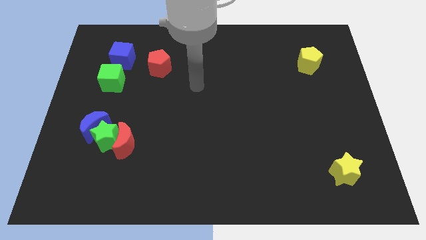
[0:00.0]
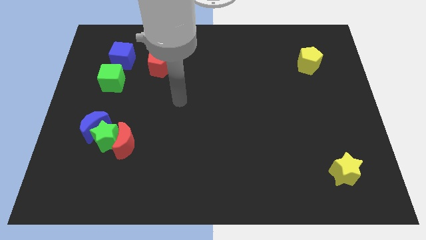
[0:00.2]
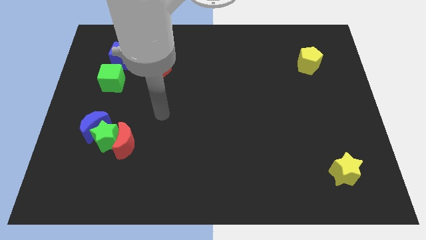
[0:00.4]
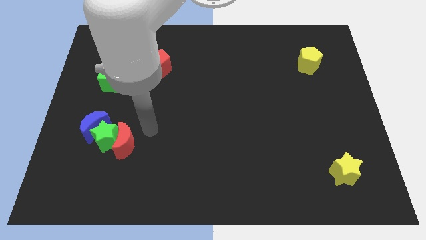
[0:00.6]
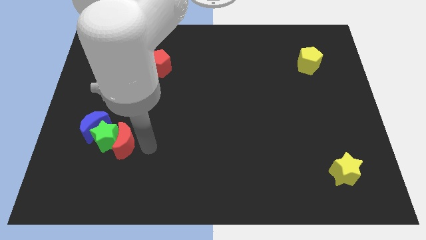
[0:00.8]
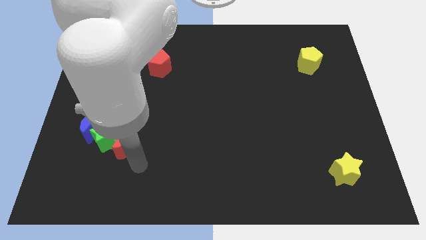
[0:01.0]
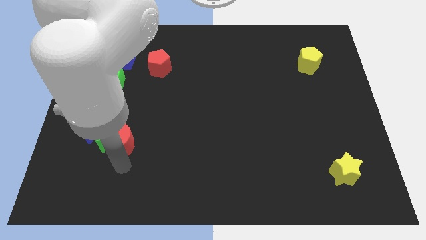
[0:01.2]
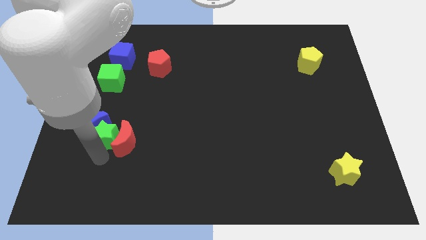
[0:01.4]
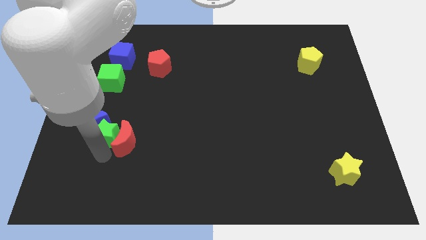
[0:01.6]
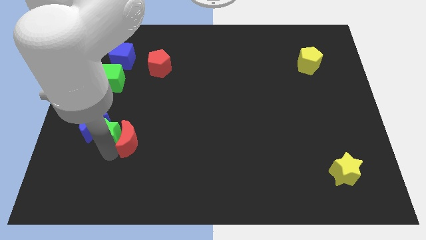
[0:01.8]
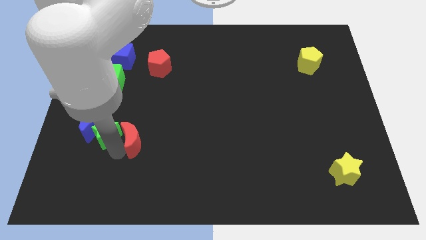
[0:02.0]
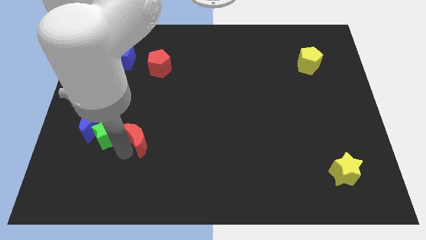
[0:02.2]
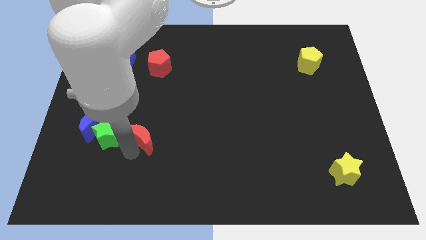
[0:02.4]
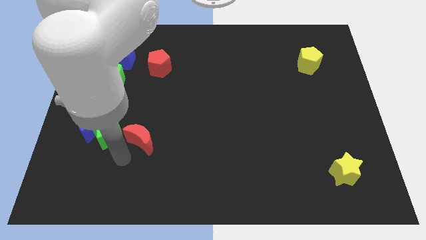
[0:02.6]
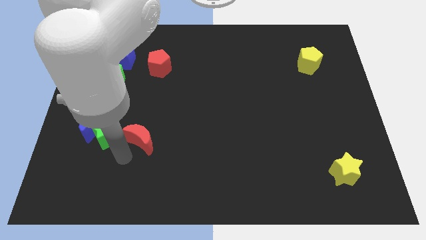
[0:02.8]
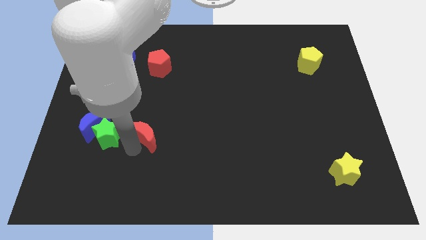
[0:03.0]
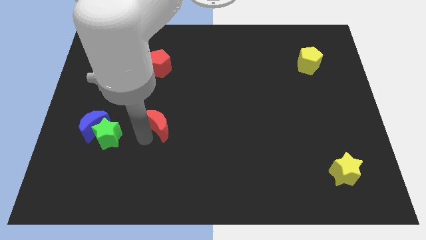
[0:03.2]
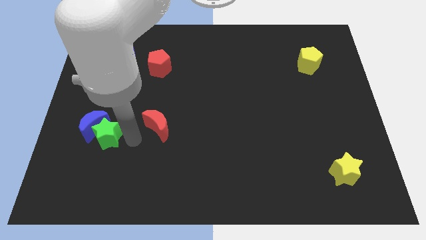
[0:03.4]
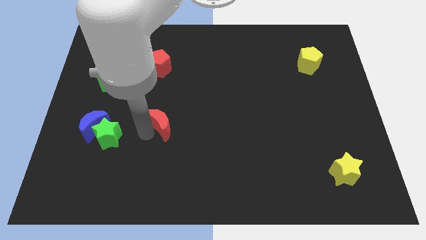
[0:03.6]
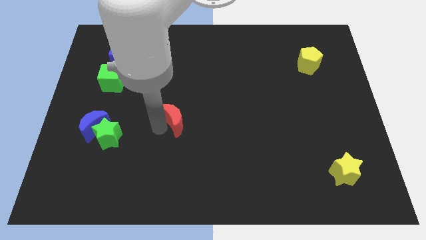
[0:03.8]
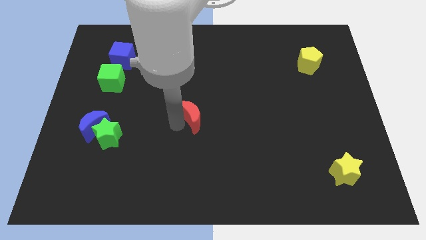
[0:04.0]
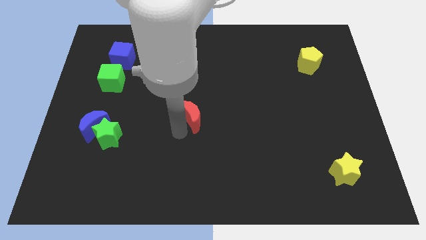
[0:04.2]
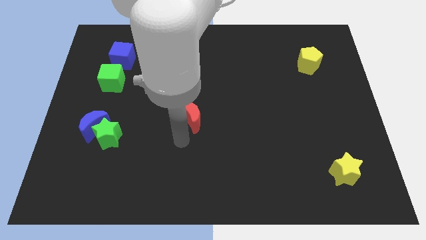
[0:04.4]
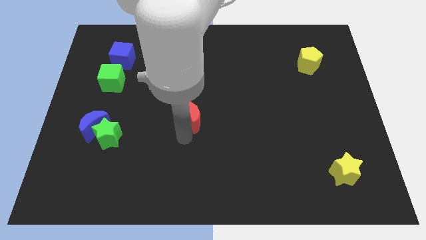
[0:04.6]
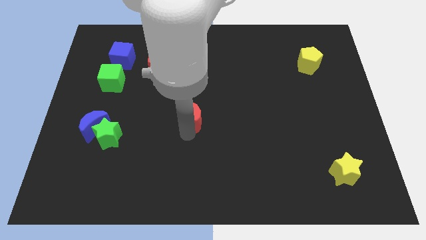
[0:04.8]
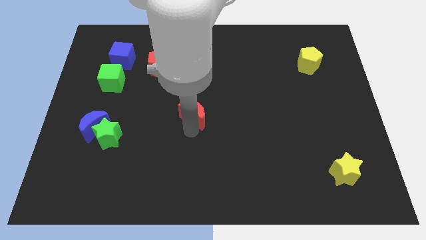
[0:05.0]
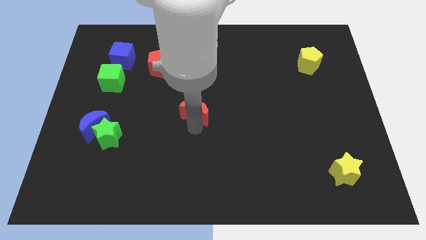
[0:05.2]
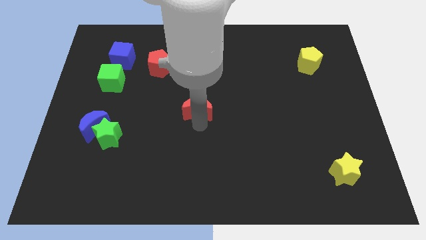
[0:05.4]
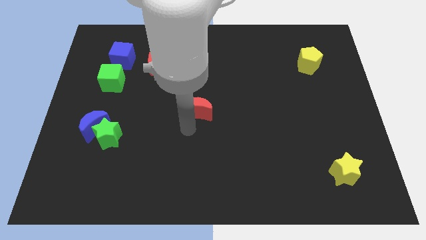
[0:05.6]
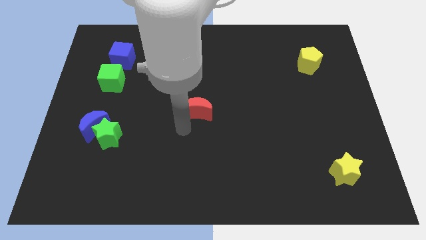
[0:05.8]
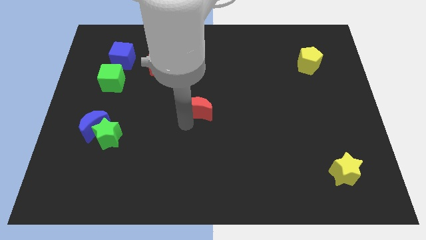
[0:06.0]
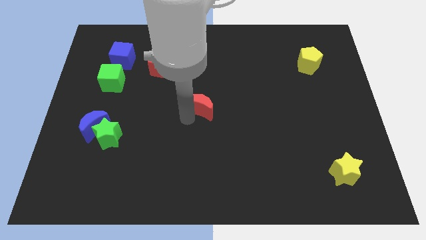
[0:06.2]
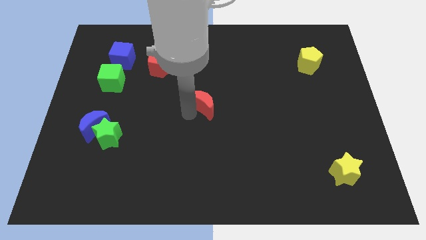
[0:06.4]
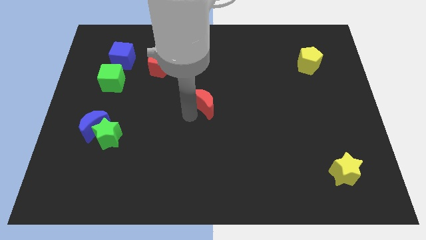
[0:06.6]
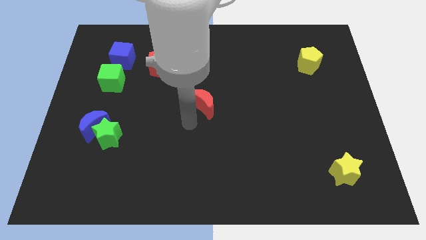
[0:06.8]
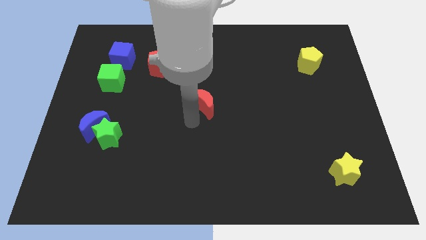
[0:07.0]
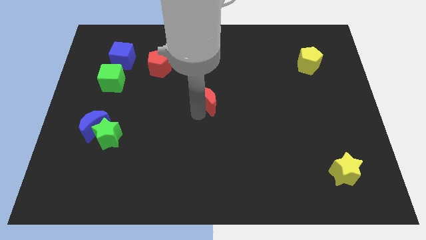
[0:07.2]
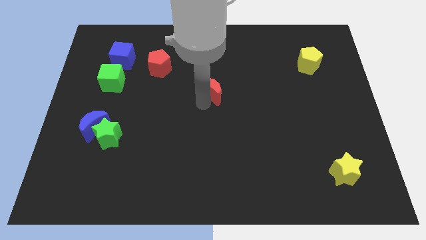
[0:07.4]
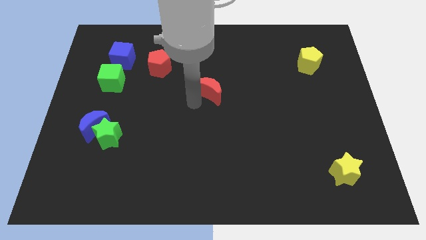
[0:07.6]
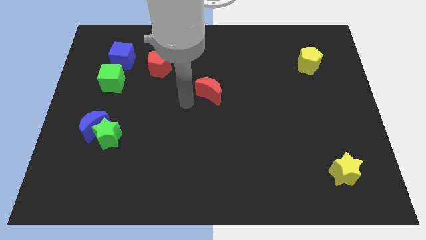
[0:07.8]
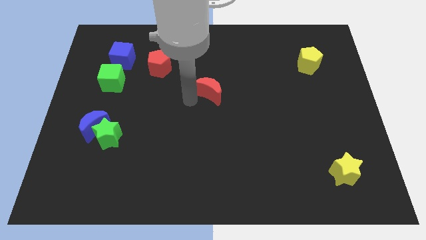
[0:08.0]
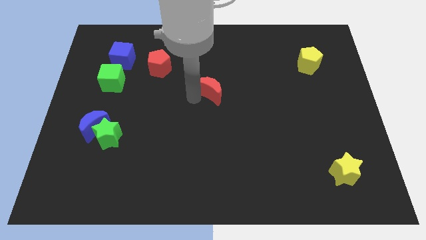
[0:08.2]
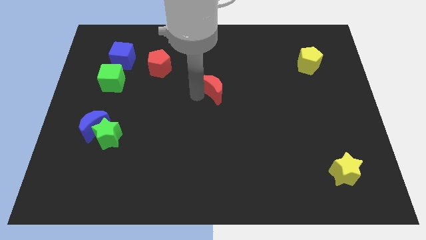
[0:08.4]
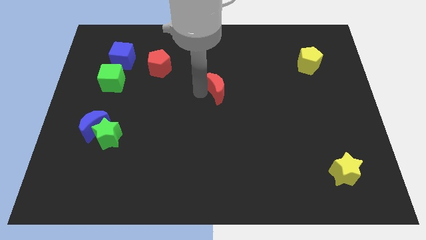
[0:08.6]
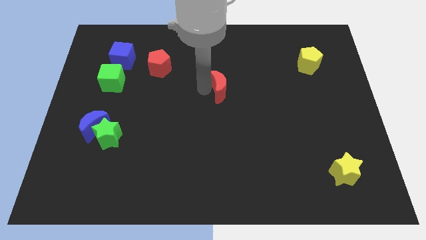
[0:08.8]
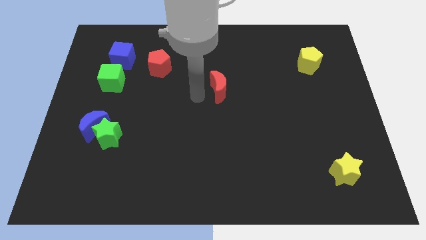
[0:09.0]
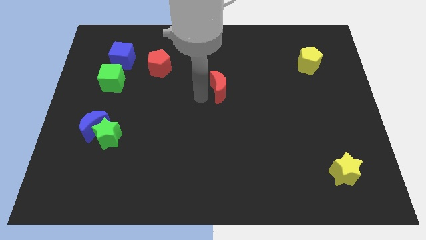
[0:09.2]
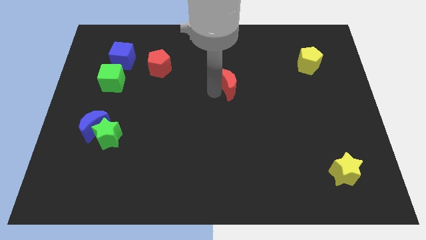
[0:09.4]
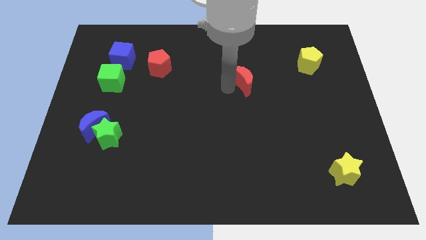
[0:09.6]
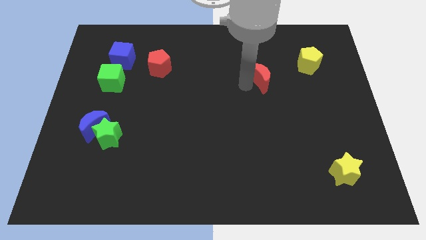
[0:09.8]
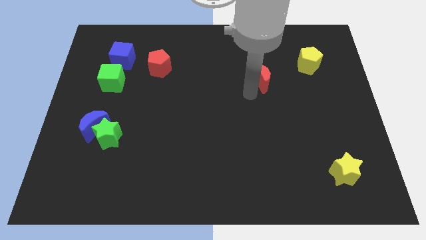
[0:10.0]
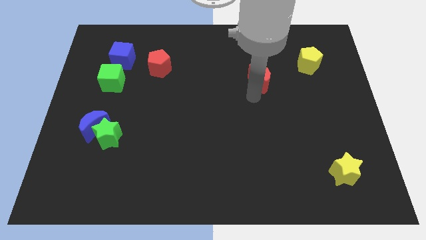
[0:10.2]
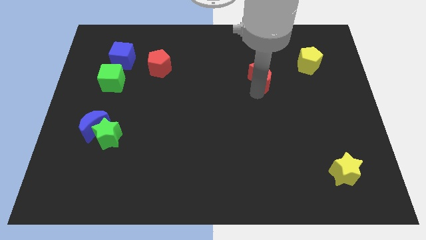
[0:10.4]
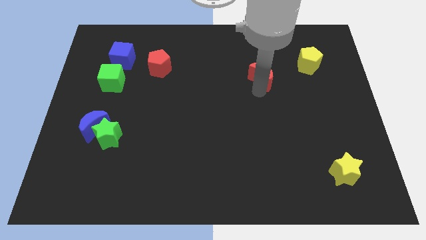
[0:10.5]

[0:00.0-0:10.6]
push the red moon left of the yellow pentagon

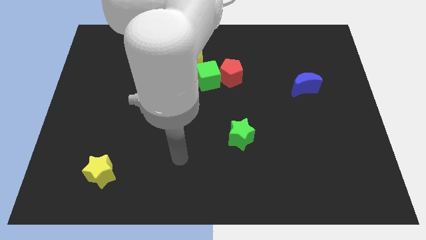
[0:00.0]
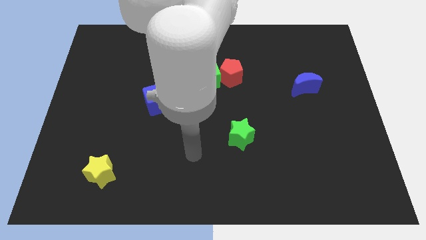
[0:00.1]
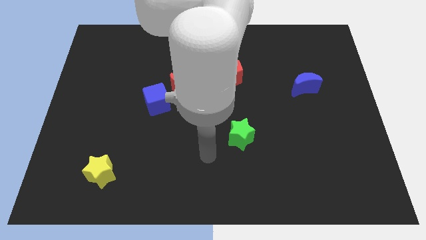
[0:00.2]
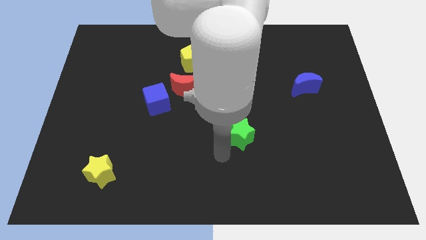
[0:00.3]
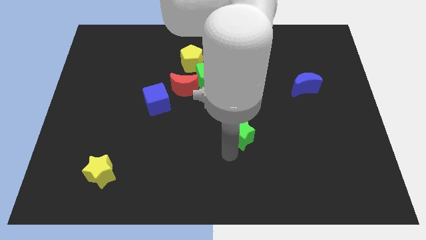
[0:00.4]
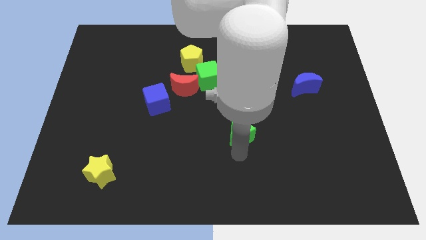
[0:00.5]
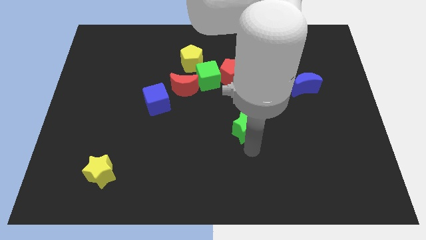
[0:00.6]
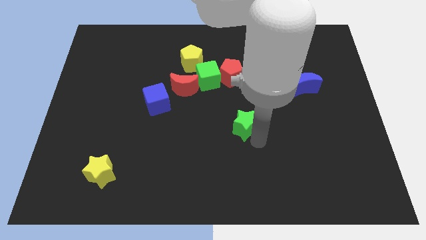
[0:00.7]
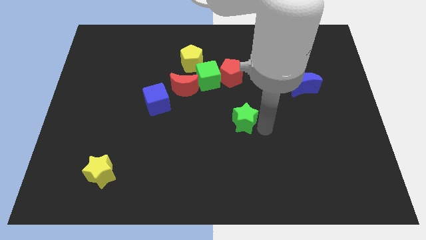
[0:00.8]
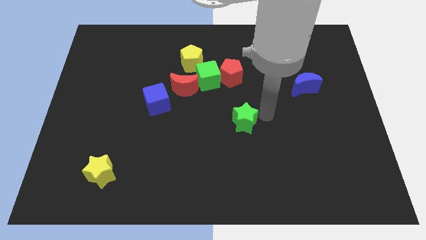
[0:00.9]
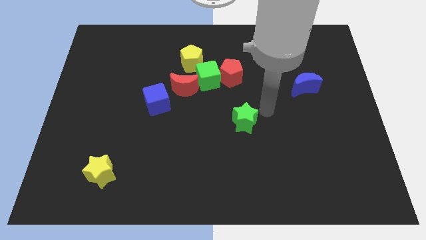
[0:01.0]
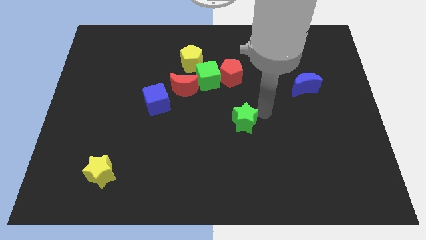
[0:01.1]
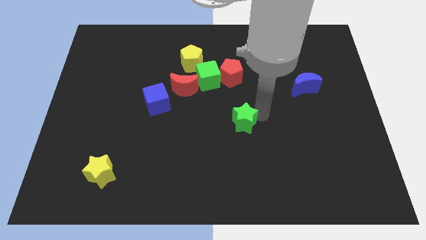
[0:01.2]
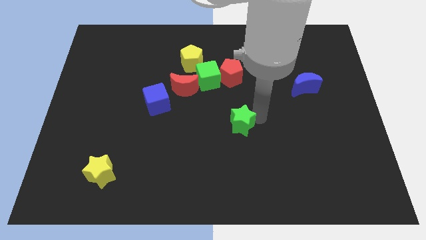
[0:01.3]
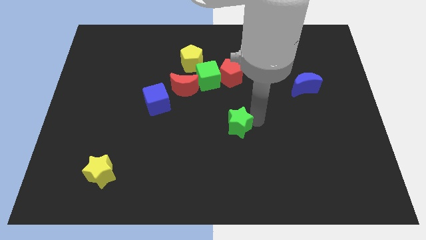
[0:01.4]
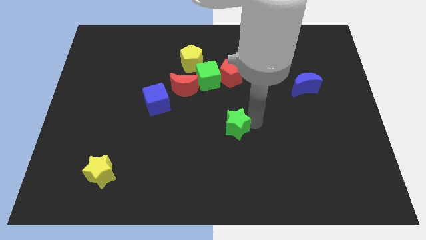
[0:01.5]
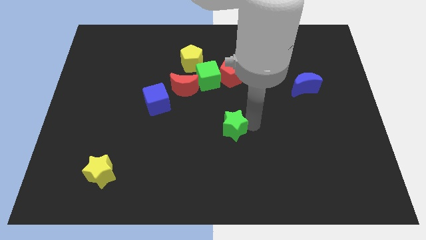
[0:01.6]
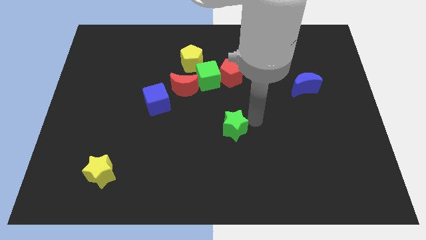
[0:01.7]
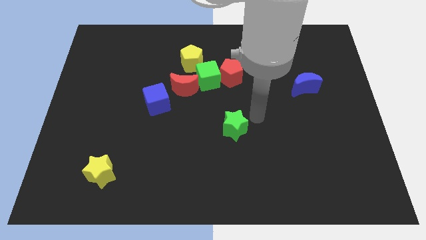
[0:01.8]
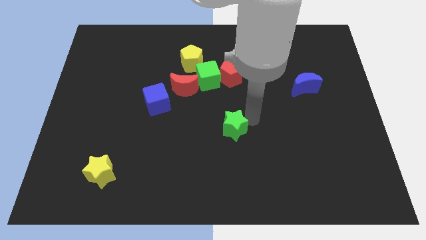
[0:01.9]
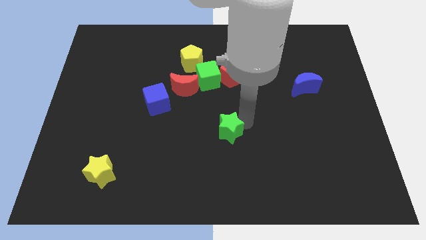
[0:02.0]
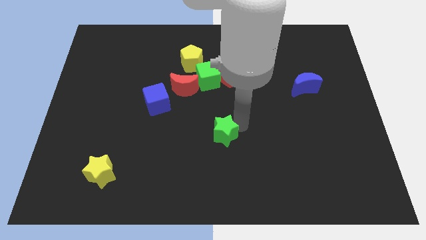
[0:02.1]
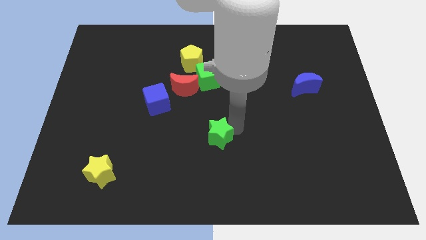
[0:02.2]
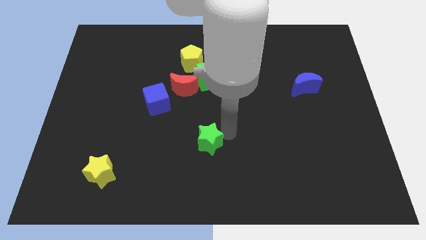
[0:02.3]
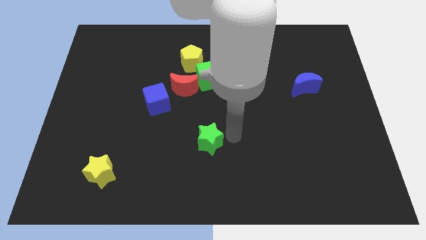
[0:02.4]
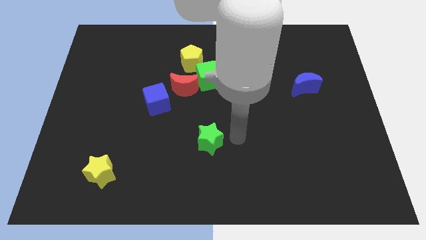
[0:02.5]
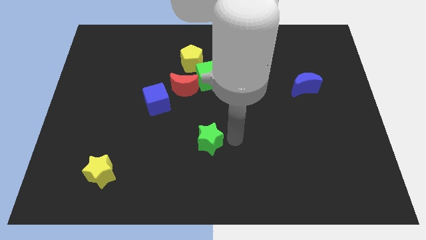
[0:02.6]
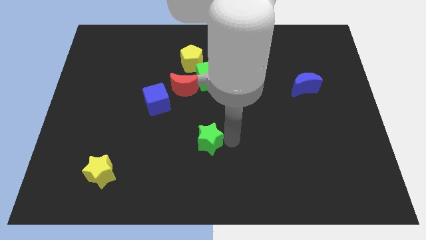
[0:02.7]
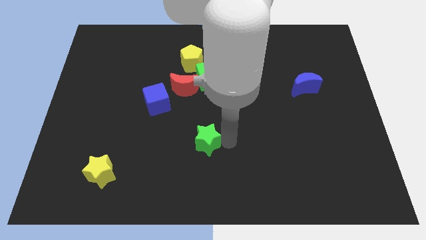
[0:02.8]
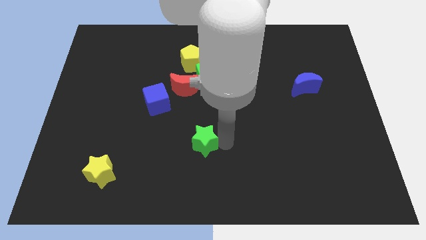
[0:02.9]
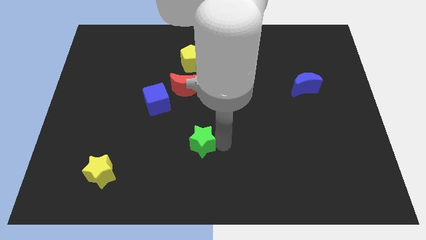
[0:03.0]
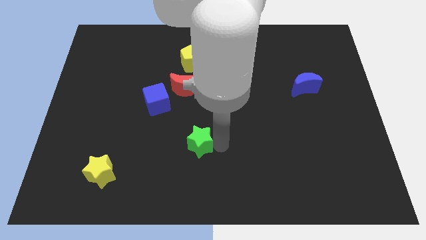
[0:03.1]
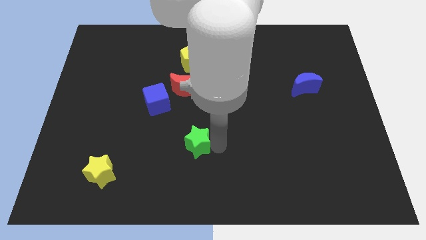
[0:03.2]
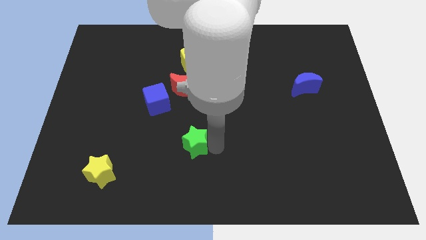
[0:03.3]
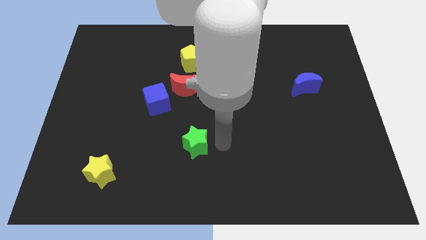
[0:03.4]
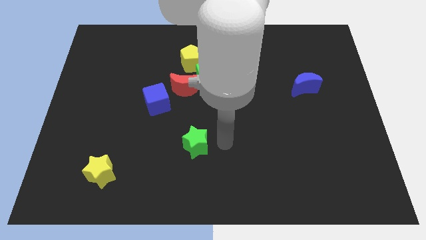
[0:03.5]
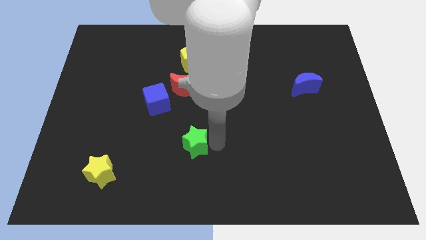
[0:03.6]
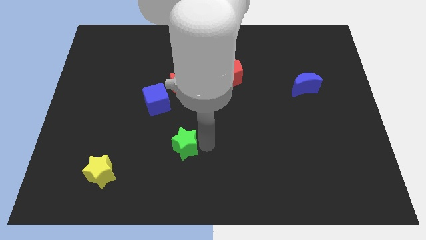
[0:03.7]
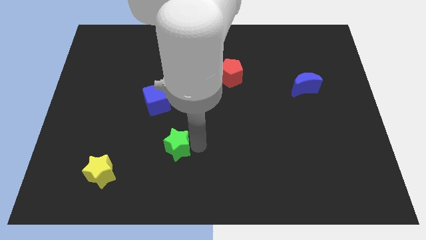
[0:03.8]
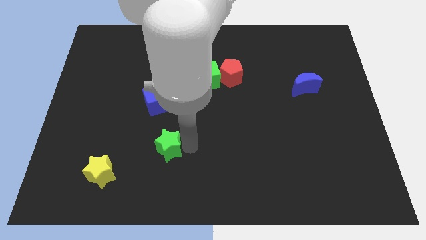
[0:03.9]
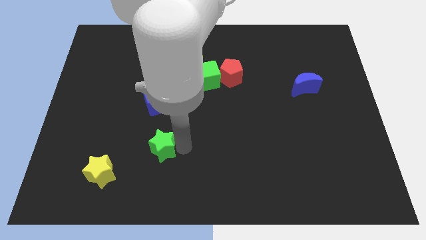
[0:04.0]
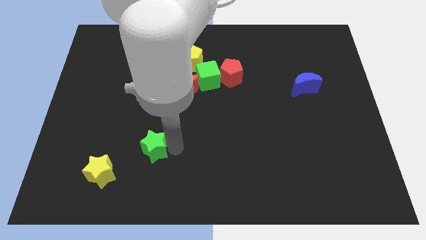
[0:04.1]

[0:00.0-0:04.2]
push the green star to the top right side of the yellow star
